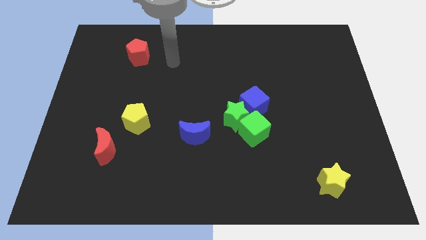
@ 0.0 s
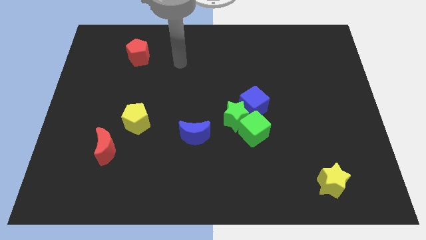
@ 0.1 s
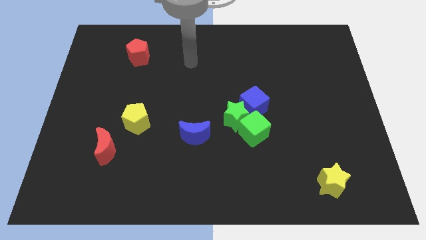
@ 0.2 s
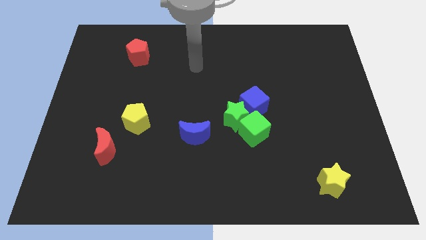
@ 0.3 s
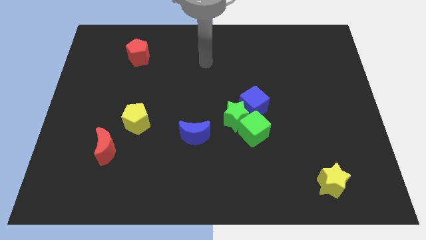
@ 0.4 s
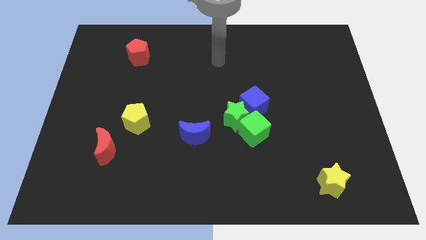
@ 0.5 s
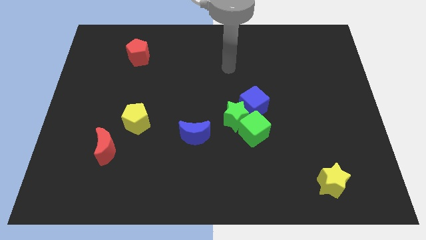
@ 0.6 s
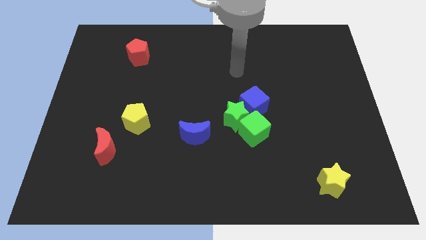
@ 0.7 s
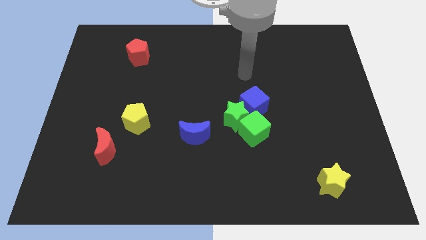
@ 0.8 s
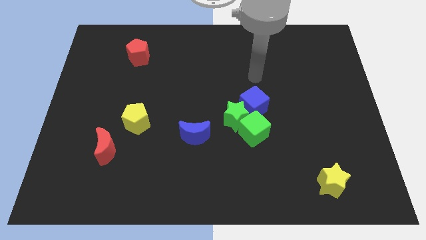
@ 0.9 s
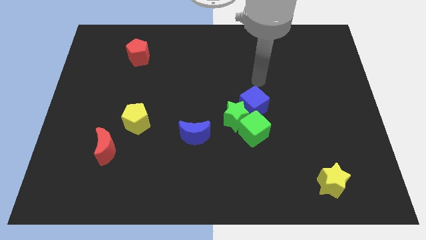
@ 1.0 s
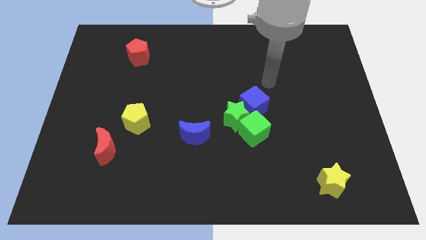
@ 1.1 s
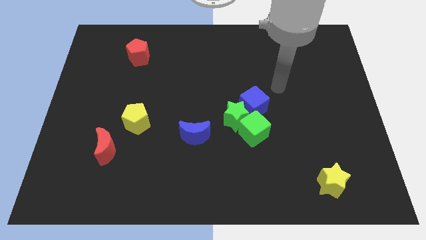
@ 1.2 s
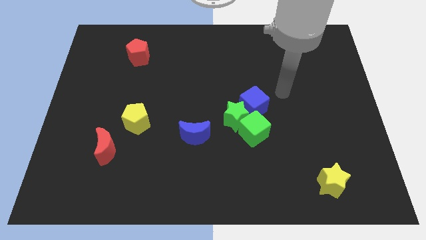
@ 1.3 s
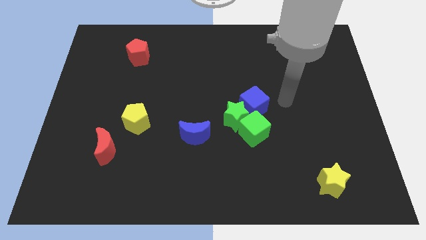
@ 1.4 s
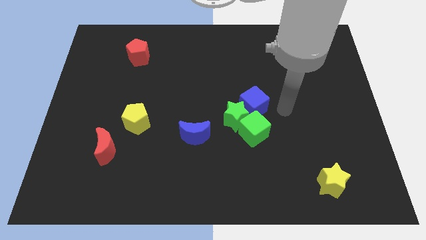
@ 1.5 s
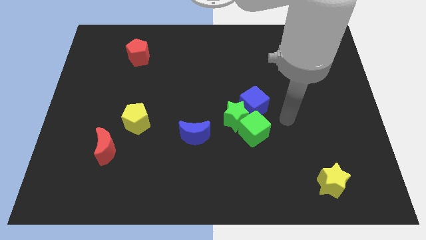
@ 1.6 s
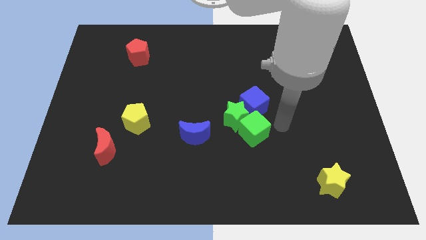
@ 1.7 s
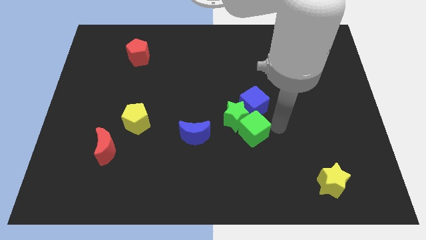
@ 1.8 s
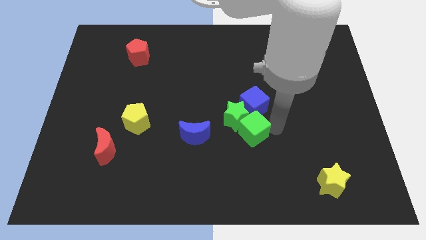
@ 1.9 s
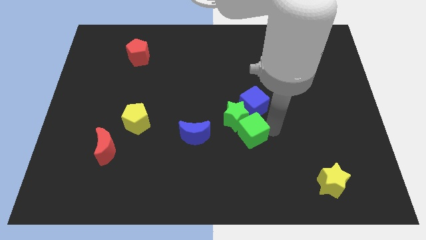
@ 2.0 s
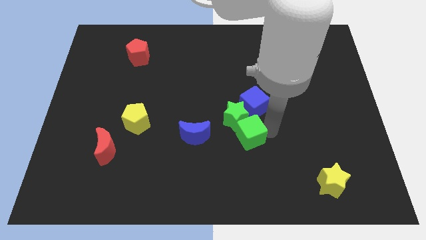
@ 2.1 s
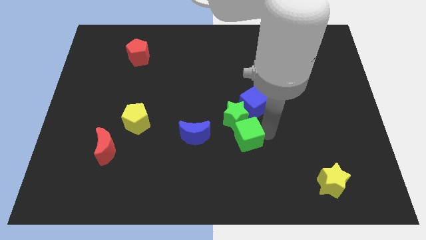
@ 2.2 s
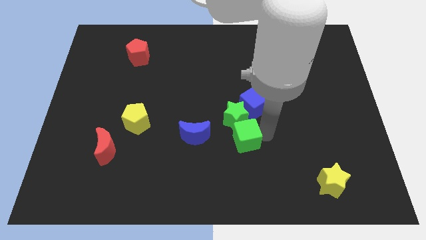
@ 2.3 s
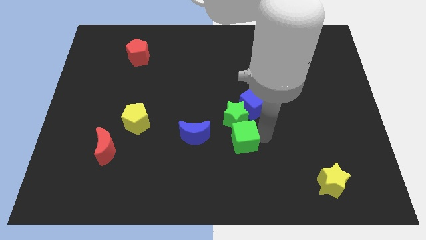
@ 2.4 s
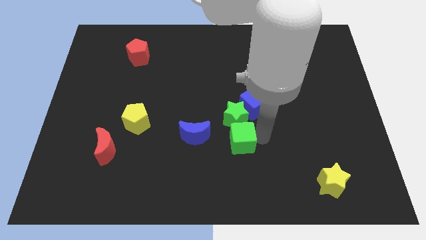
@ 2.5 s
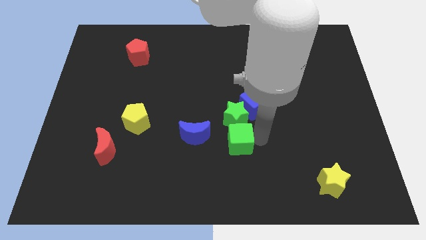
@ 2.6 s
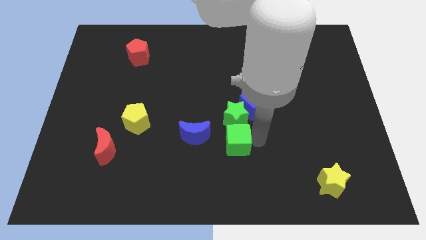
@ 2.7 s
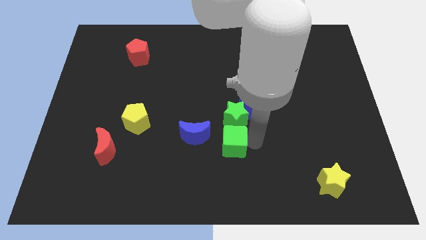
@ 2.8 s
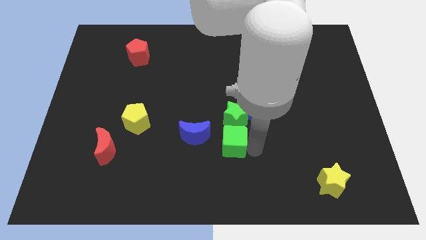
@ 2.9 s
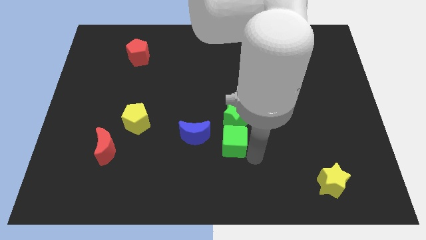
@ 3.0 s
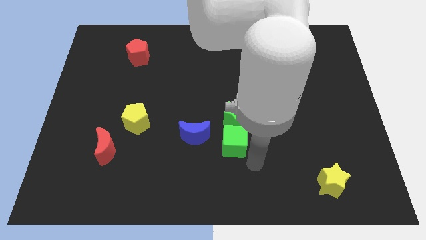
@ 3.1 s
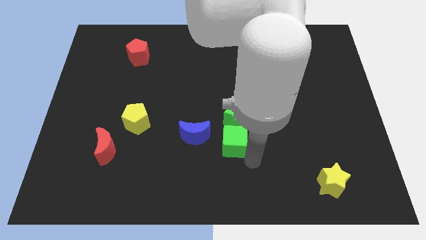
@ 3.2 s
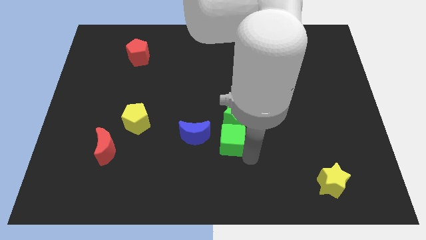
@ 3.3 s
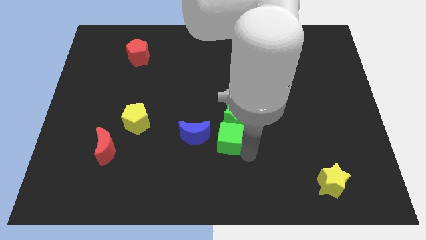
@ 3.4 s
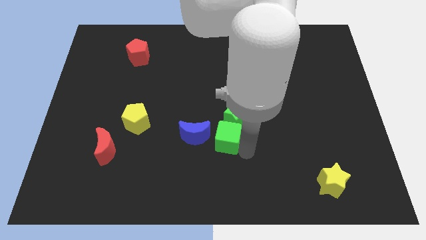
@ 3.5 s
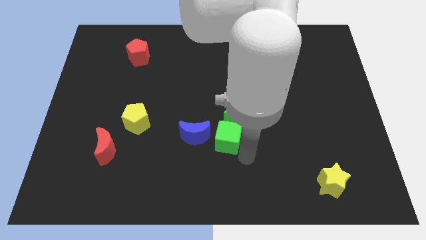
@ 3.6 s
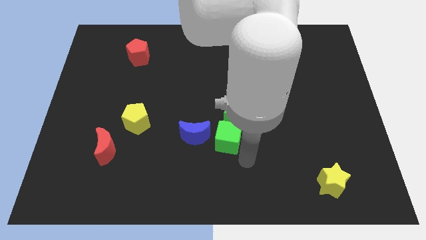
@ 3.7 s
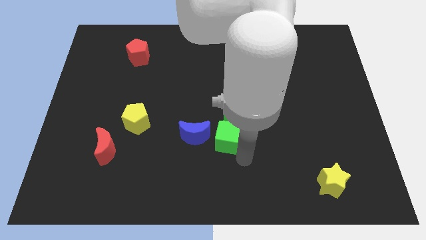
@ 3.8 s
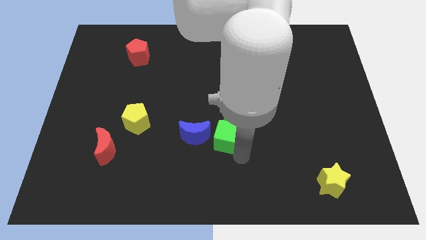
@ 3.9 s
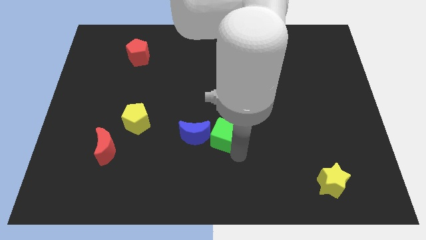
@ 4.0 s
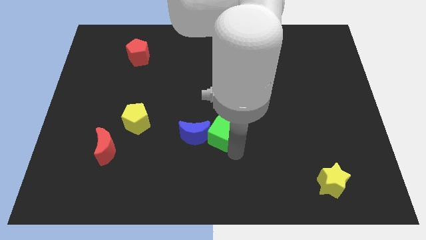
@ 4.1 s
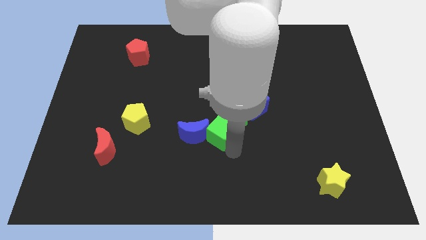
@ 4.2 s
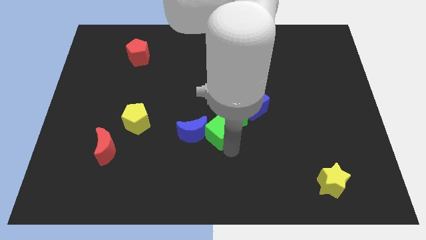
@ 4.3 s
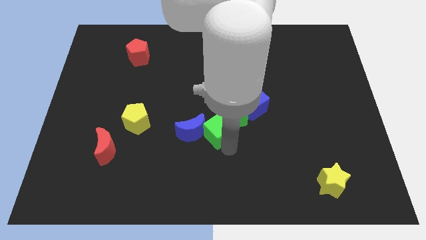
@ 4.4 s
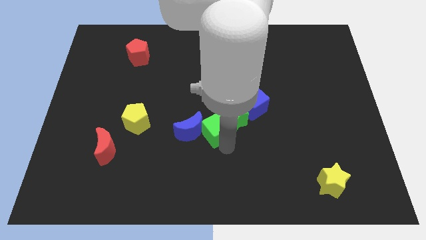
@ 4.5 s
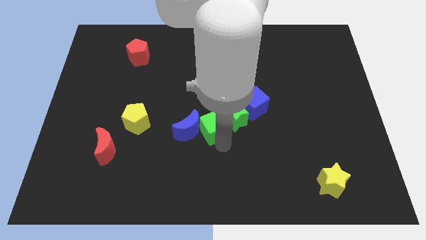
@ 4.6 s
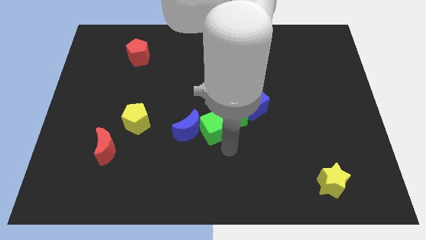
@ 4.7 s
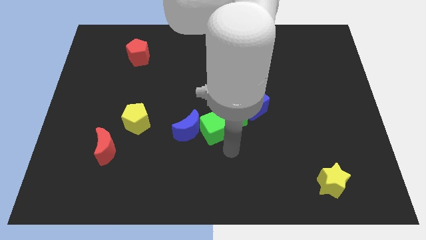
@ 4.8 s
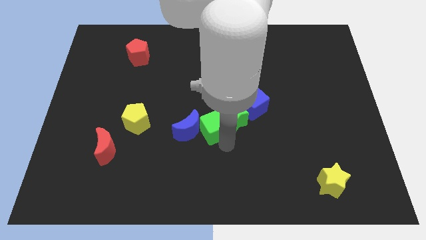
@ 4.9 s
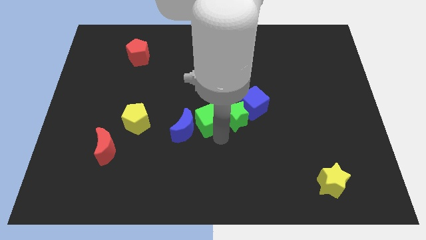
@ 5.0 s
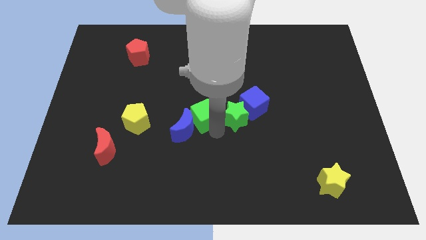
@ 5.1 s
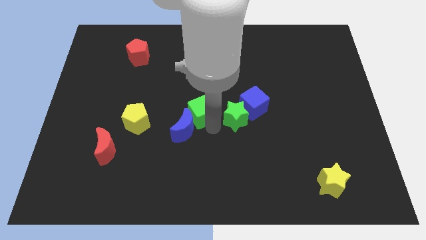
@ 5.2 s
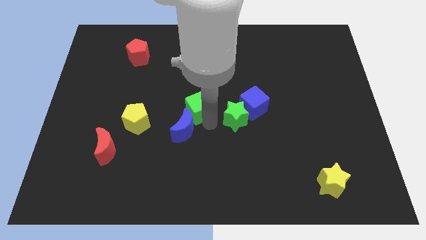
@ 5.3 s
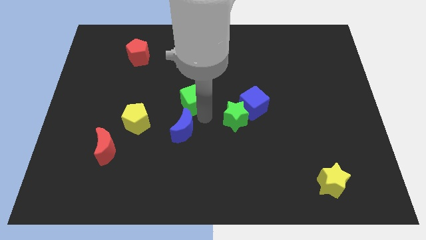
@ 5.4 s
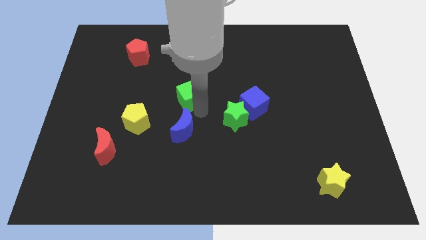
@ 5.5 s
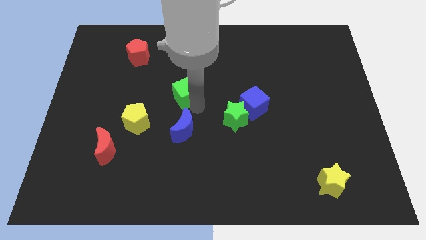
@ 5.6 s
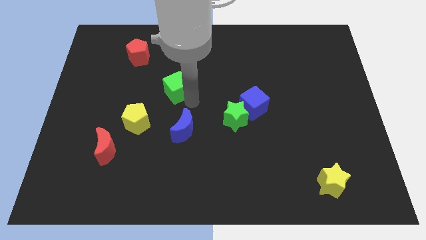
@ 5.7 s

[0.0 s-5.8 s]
slide the green cube upwards and to the left diagonally

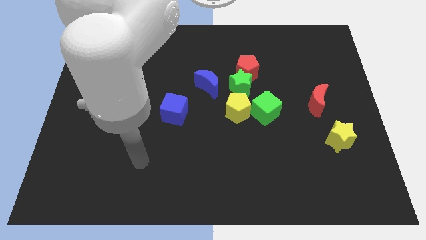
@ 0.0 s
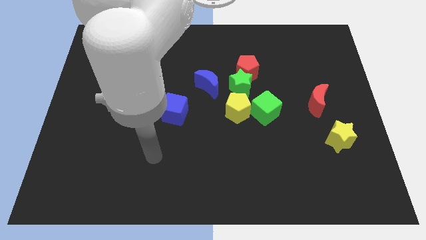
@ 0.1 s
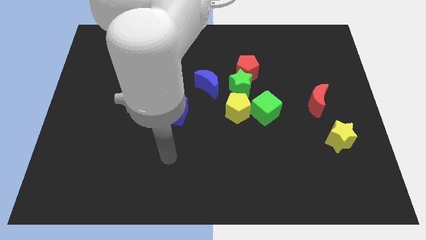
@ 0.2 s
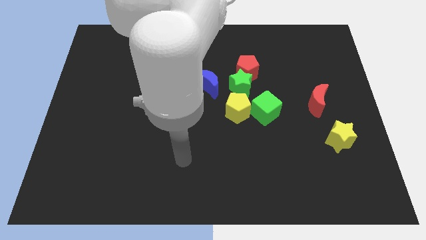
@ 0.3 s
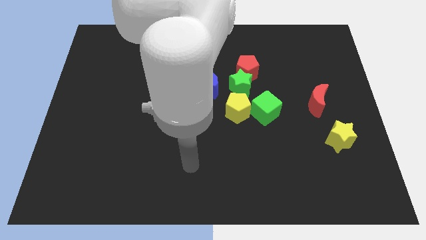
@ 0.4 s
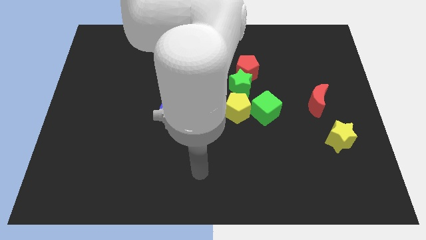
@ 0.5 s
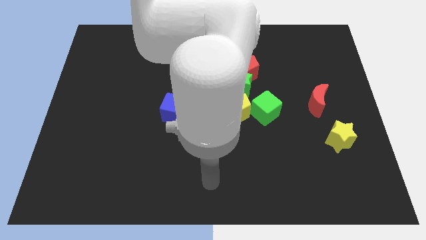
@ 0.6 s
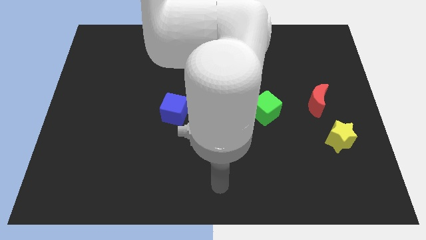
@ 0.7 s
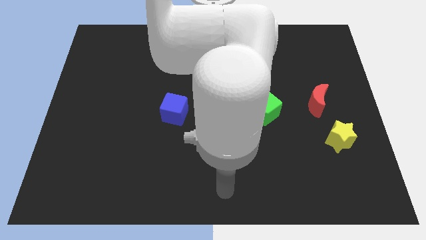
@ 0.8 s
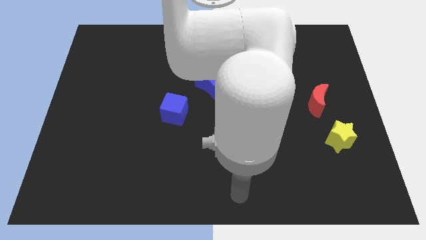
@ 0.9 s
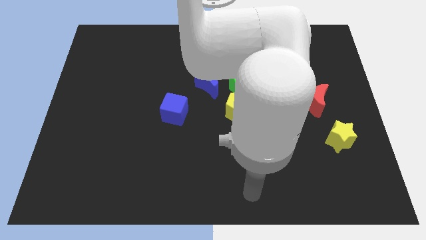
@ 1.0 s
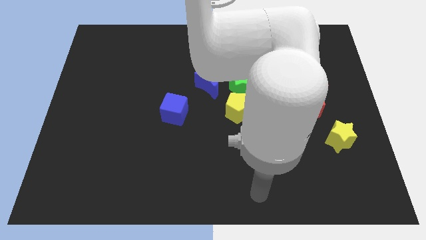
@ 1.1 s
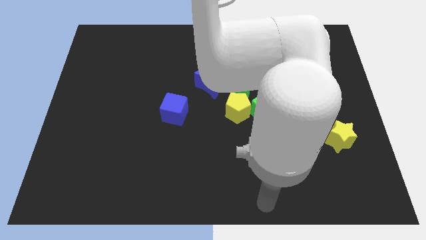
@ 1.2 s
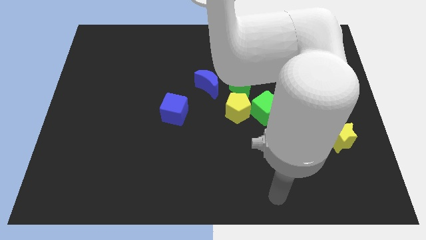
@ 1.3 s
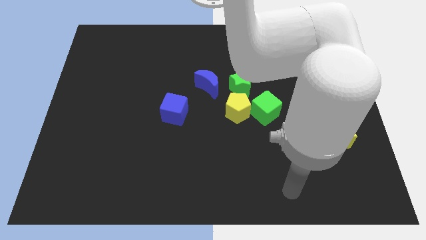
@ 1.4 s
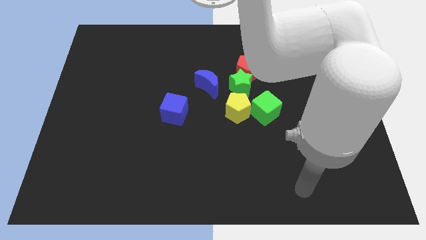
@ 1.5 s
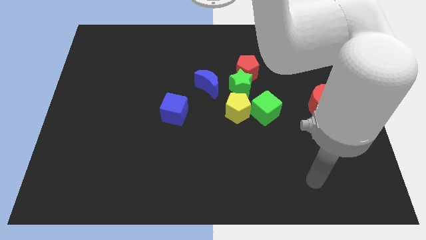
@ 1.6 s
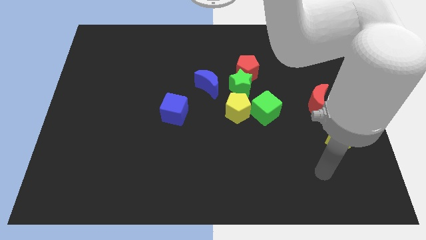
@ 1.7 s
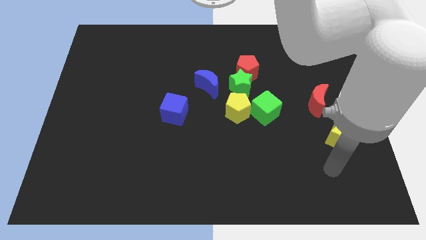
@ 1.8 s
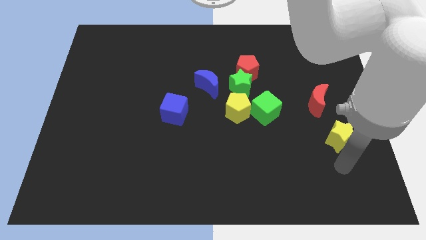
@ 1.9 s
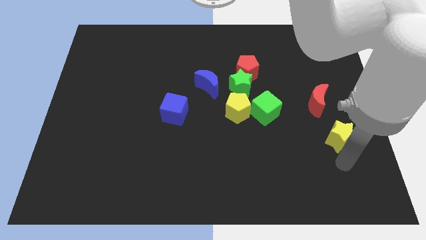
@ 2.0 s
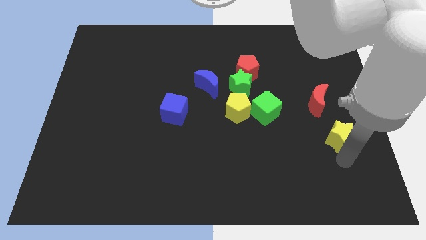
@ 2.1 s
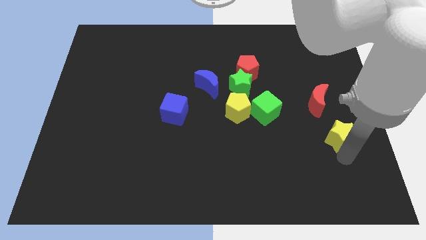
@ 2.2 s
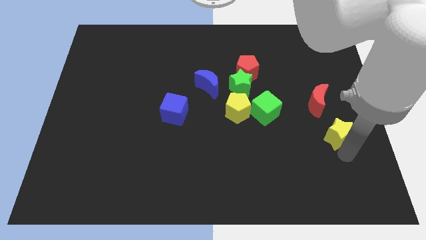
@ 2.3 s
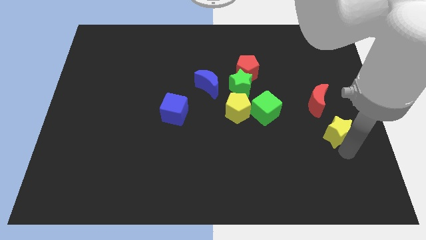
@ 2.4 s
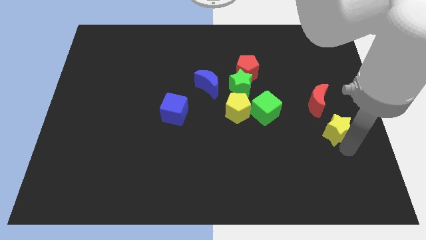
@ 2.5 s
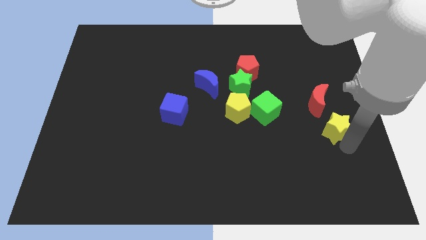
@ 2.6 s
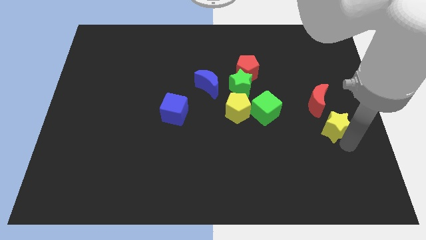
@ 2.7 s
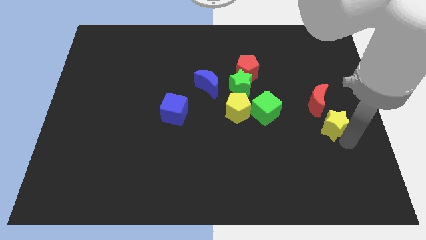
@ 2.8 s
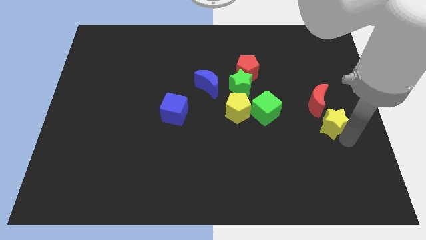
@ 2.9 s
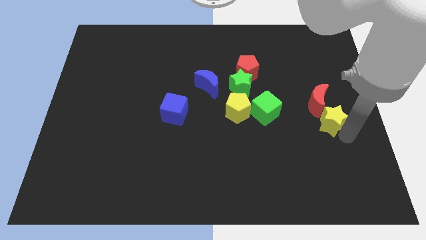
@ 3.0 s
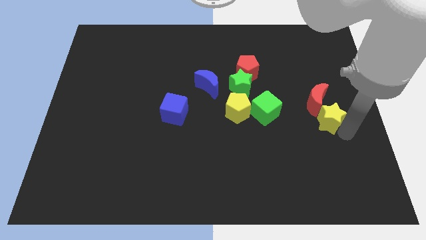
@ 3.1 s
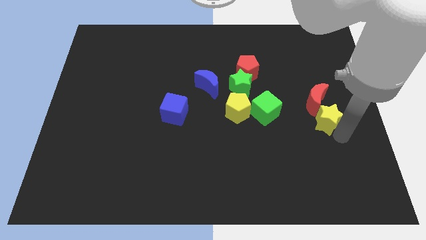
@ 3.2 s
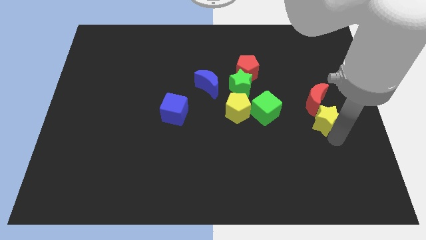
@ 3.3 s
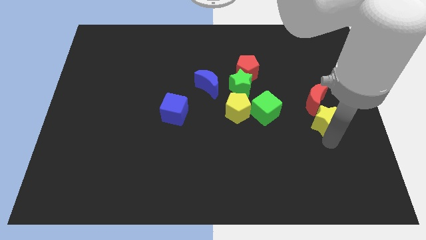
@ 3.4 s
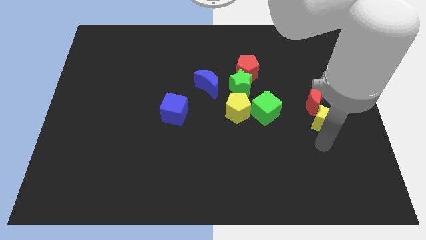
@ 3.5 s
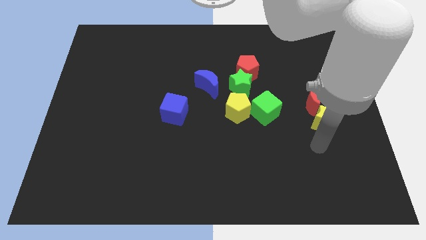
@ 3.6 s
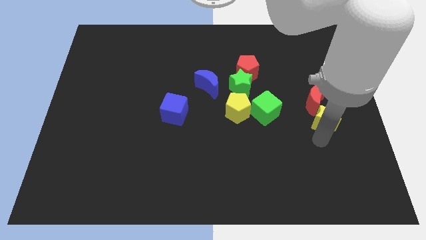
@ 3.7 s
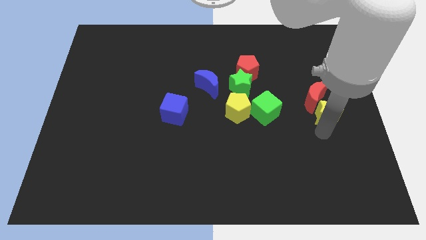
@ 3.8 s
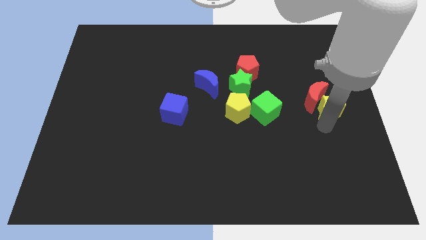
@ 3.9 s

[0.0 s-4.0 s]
move the yellow star somewhat up
